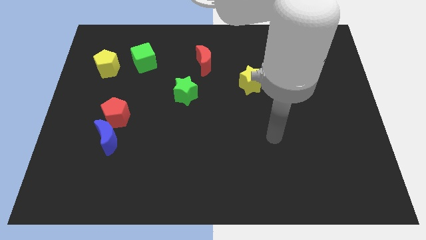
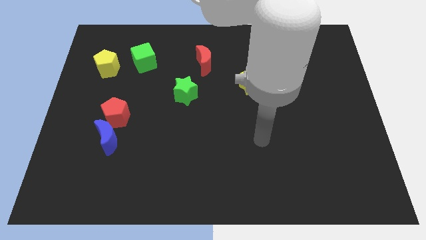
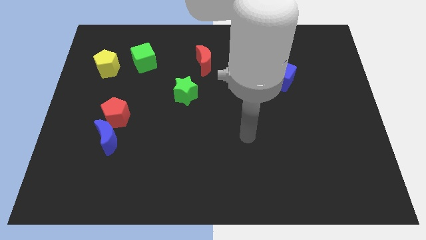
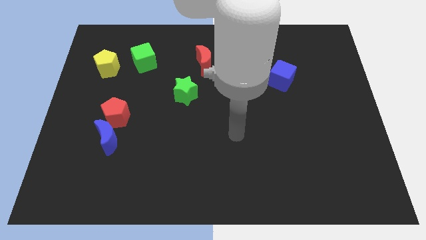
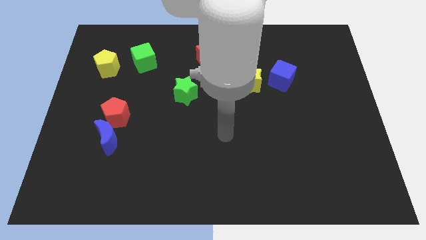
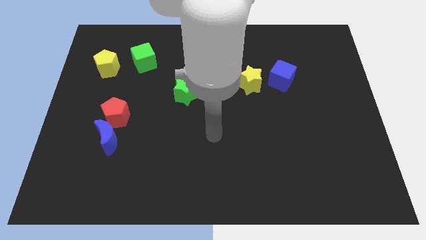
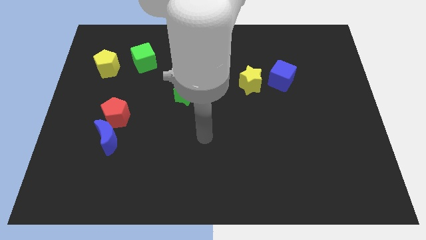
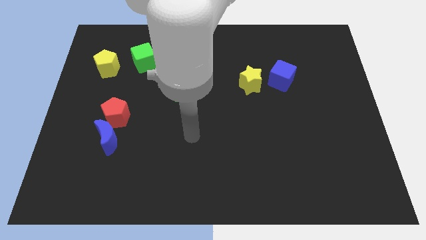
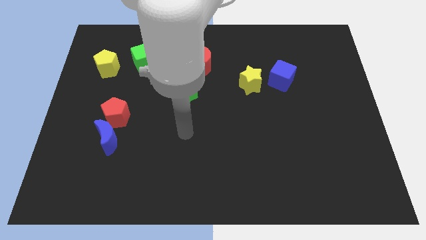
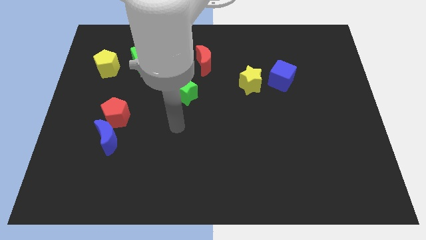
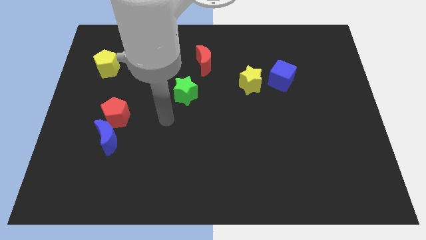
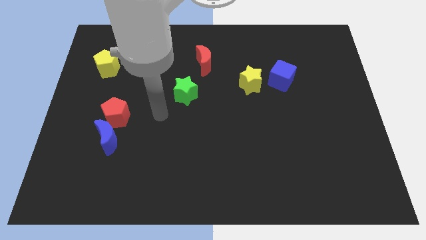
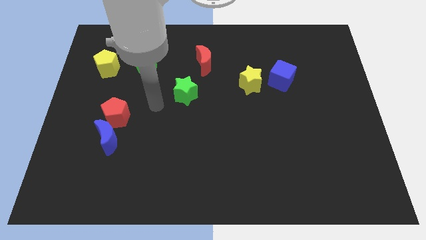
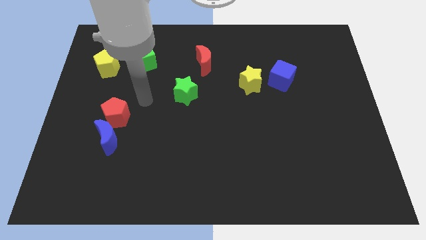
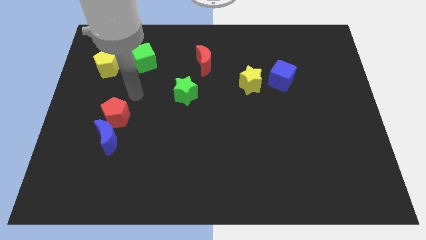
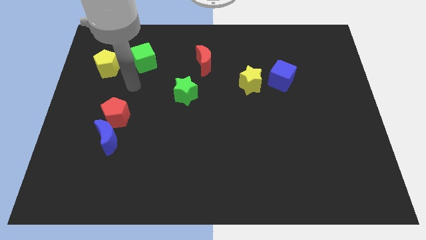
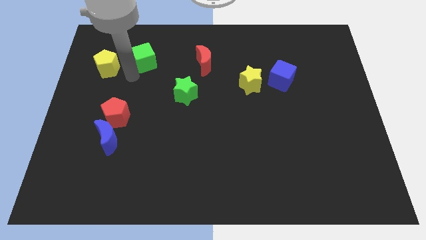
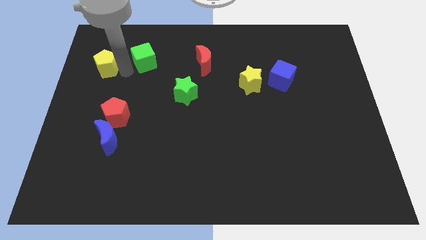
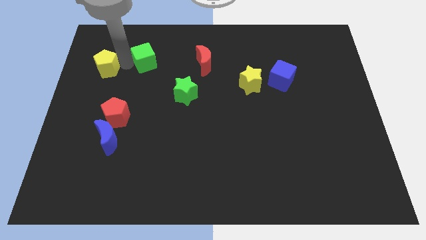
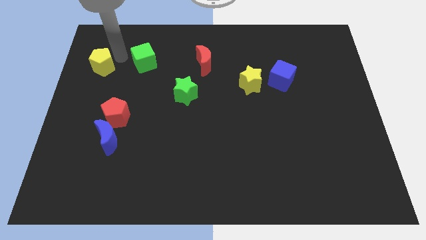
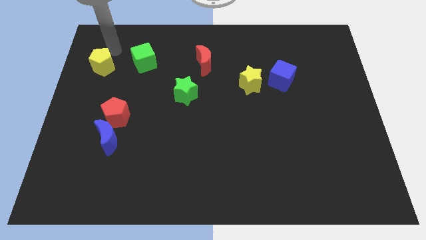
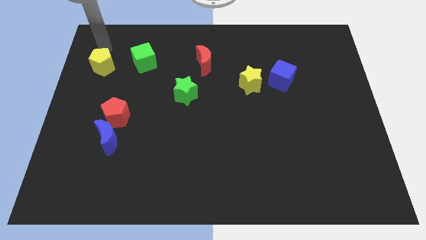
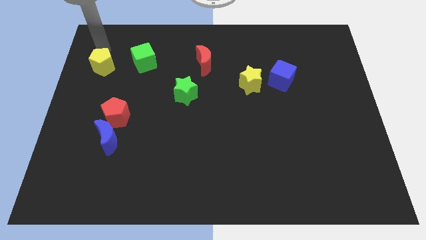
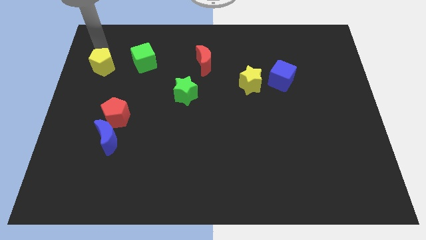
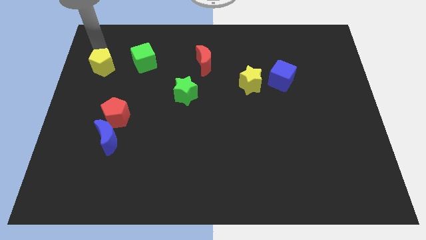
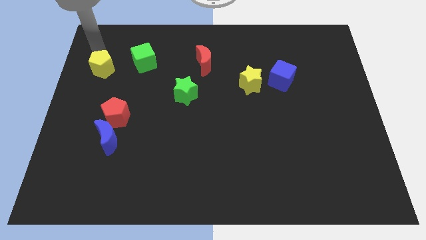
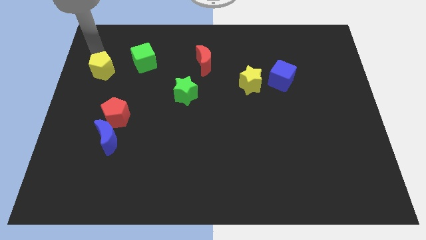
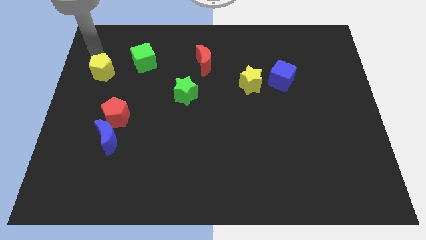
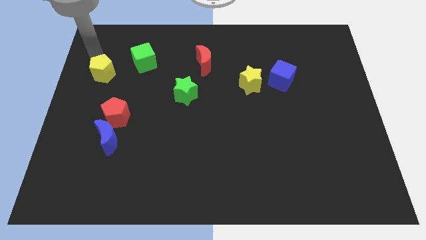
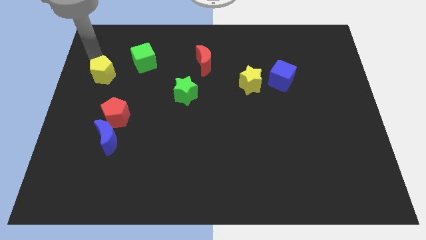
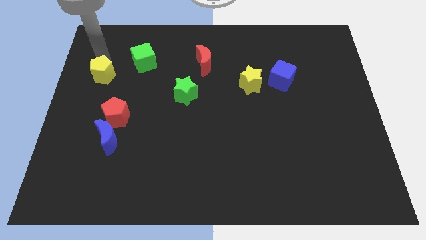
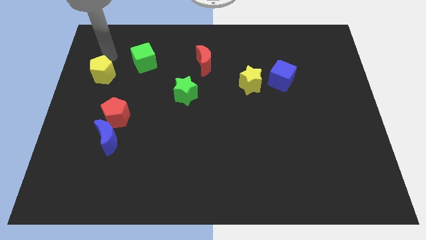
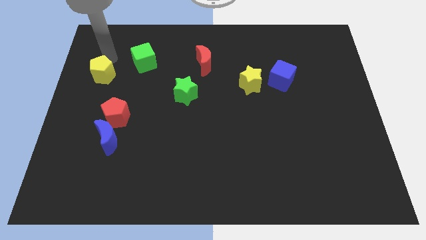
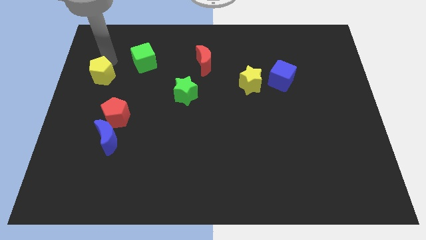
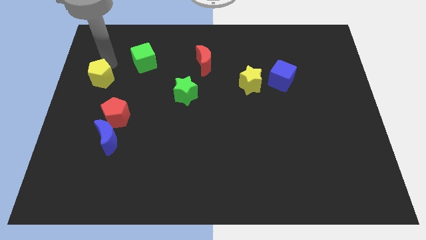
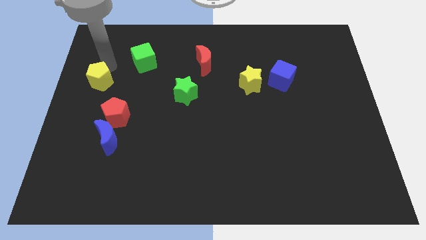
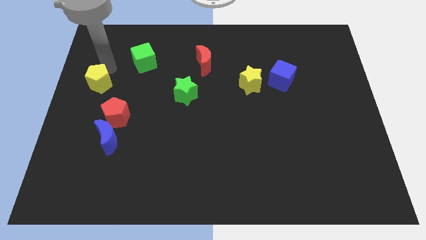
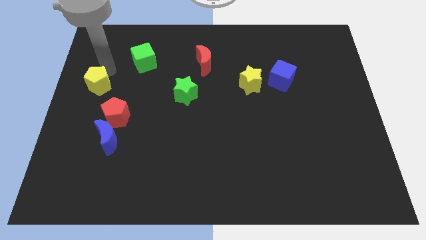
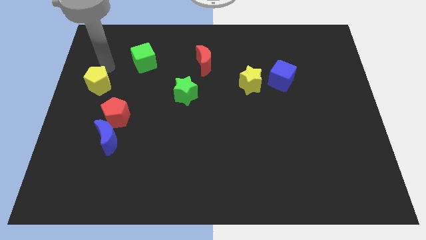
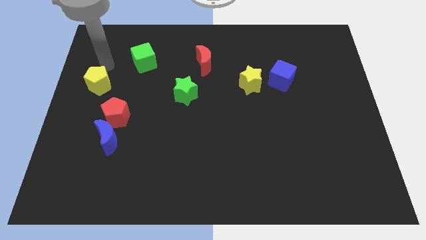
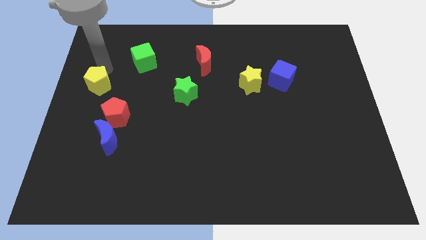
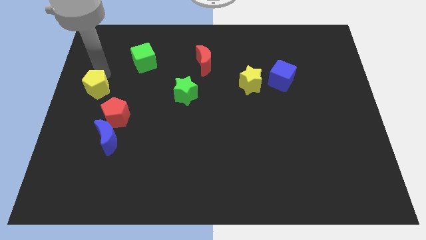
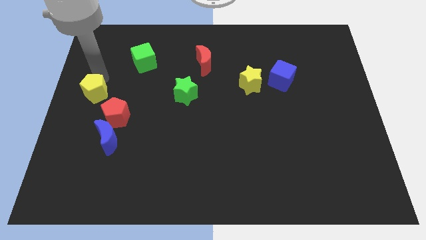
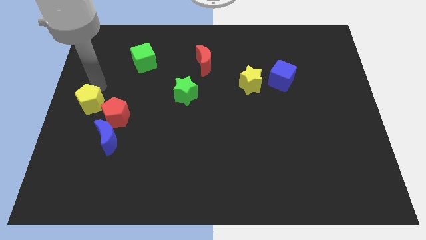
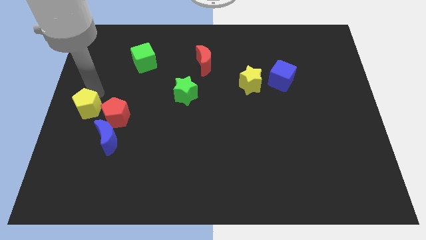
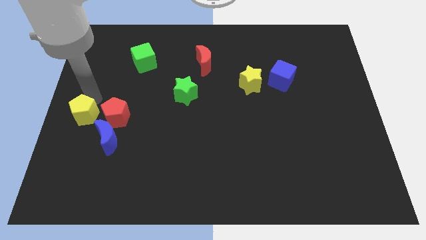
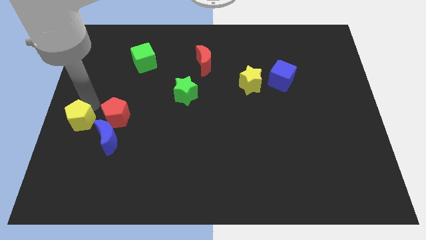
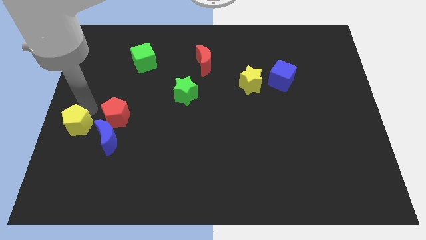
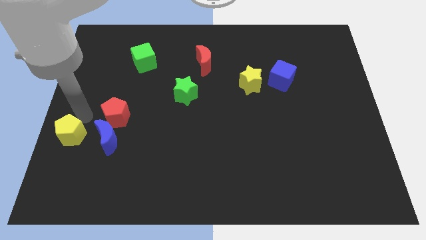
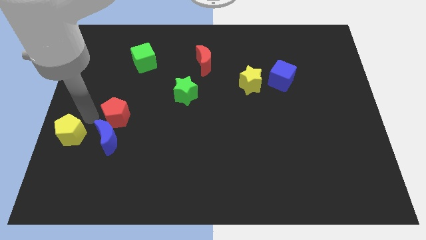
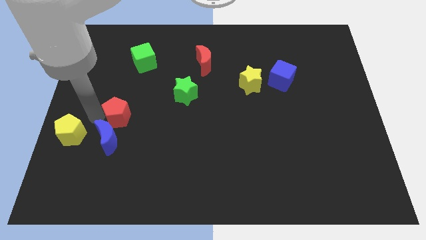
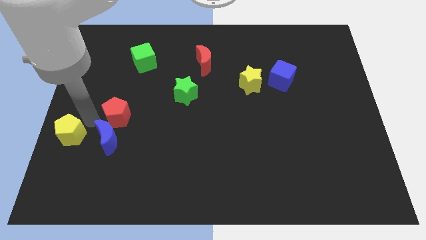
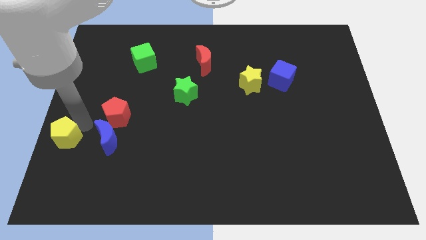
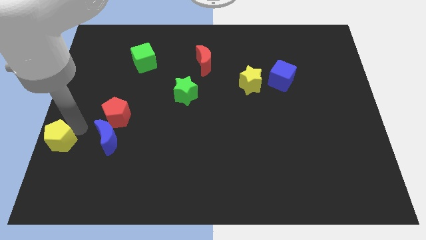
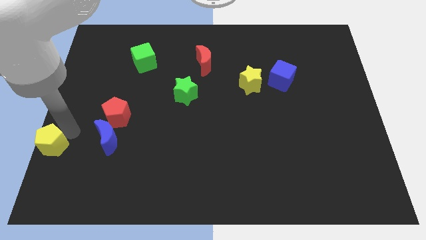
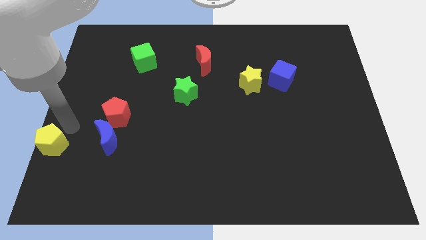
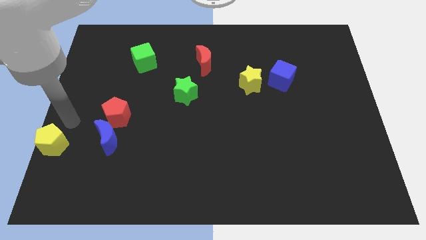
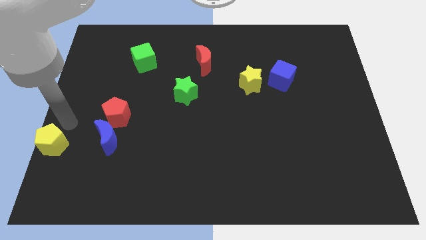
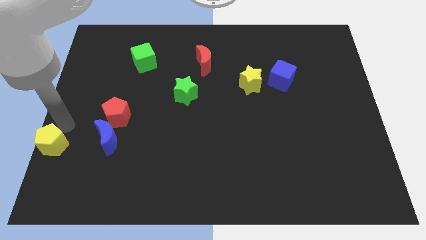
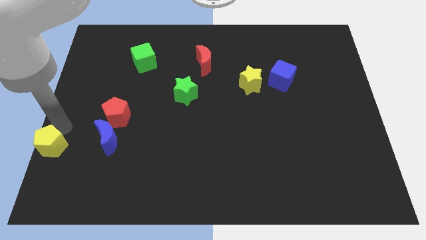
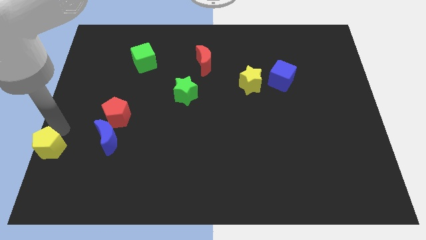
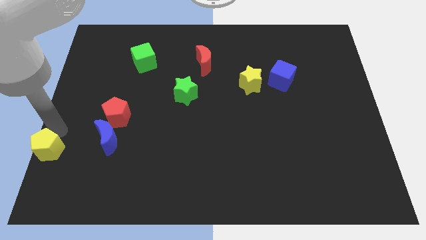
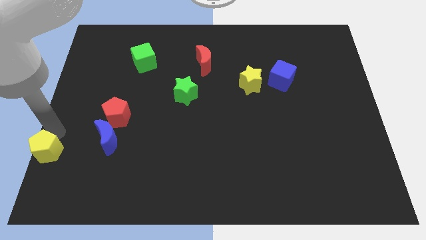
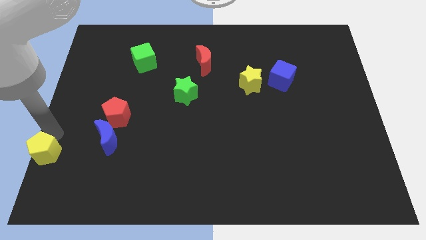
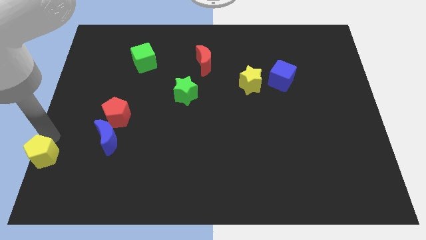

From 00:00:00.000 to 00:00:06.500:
slide the yellow pentagon to the bottom left
